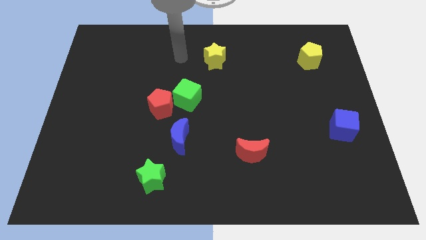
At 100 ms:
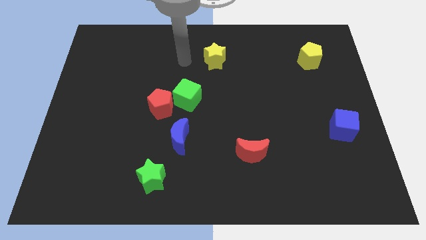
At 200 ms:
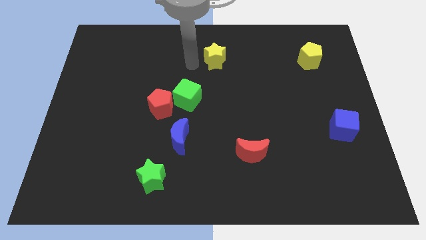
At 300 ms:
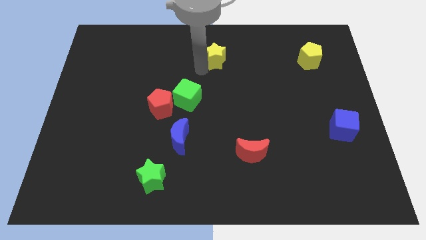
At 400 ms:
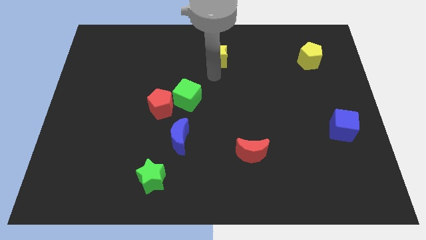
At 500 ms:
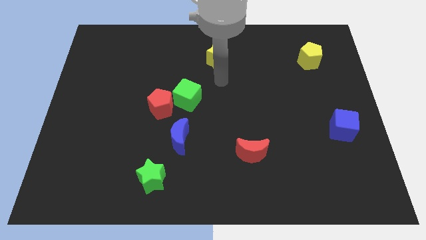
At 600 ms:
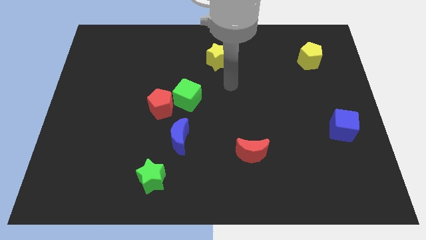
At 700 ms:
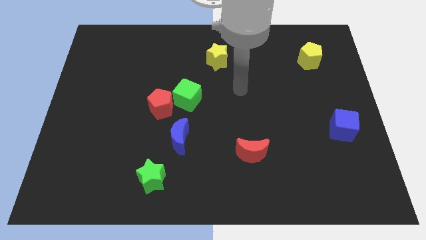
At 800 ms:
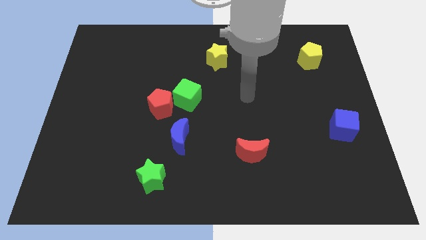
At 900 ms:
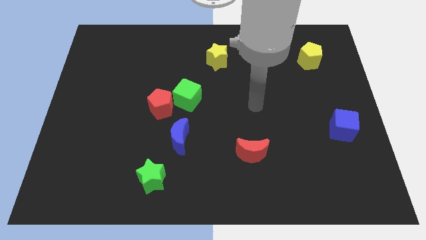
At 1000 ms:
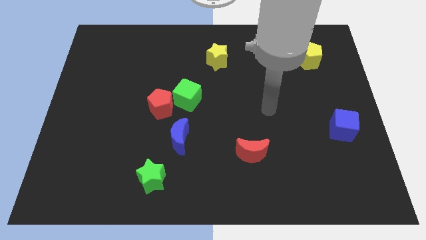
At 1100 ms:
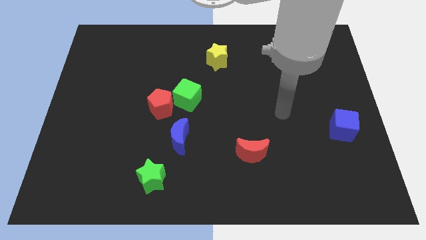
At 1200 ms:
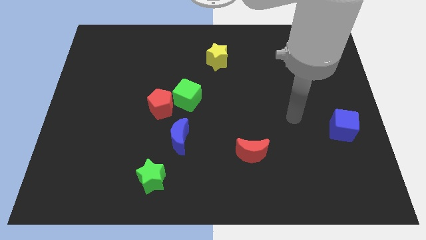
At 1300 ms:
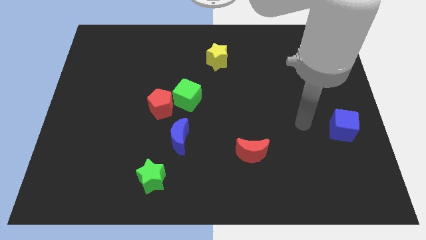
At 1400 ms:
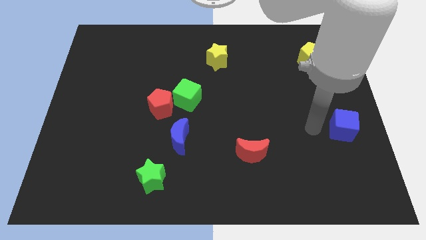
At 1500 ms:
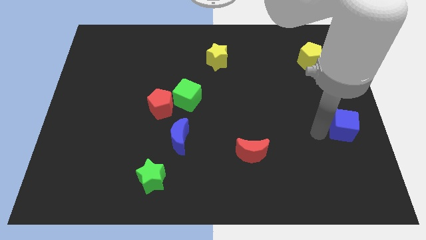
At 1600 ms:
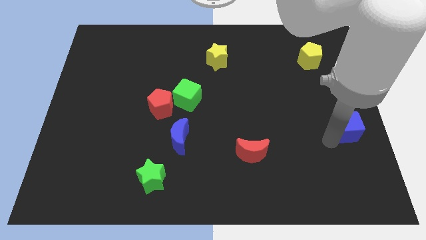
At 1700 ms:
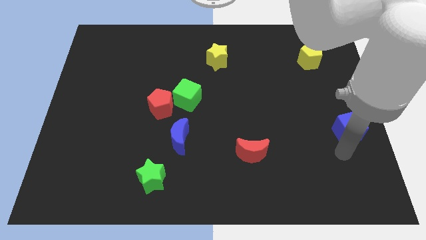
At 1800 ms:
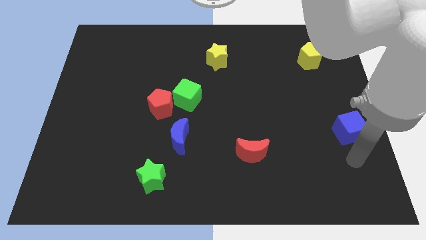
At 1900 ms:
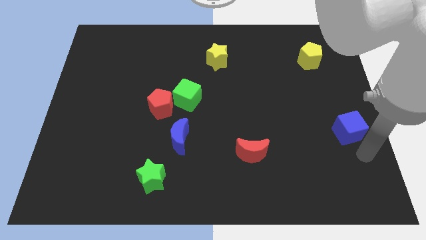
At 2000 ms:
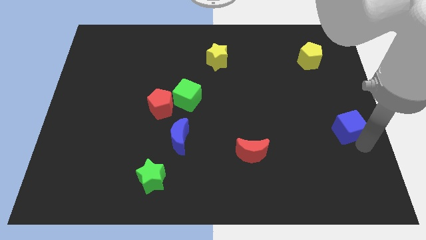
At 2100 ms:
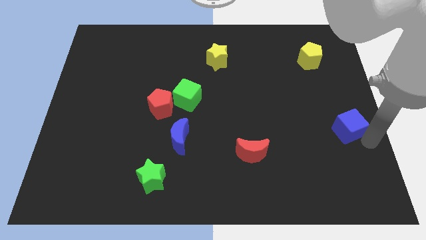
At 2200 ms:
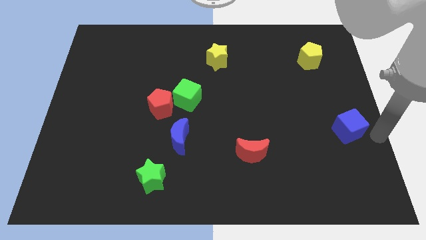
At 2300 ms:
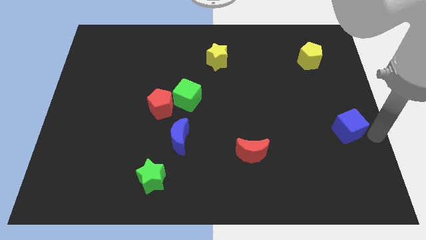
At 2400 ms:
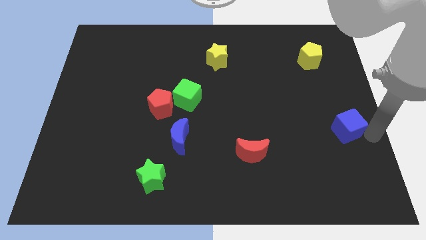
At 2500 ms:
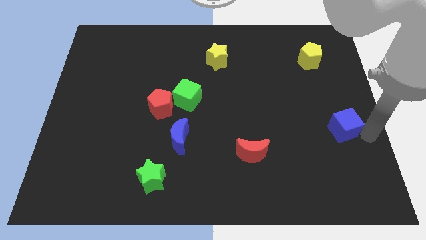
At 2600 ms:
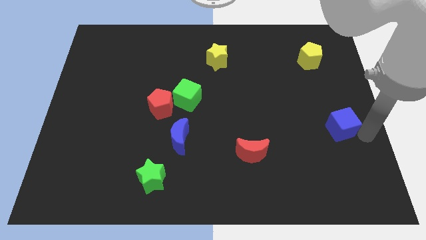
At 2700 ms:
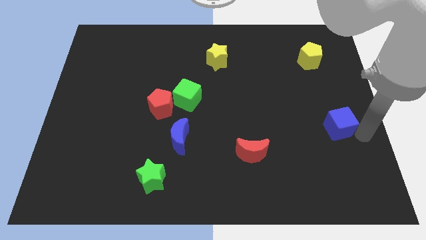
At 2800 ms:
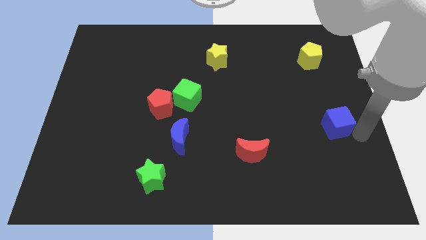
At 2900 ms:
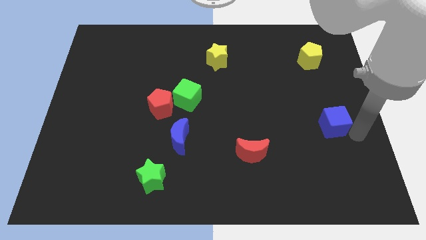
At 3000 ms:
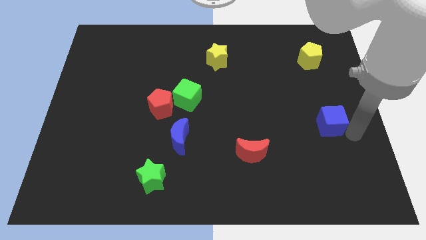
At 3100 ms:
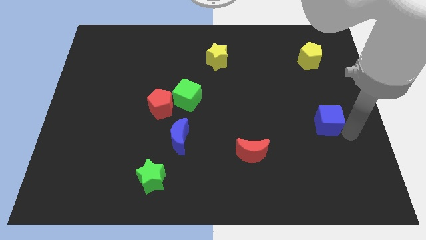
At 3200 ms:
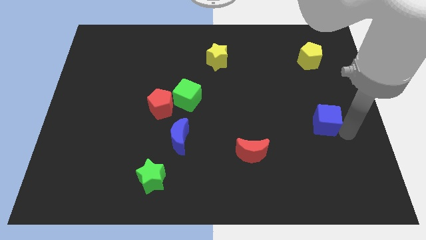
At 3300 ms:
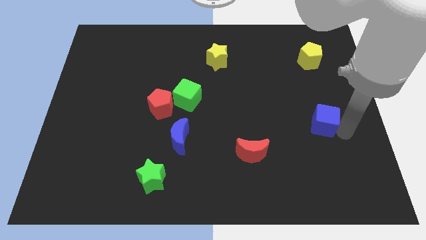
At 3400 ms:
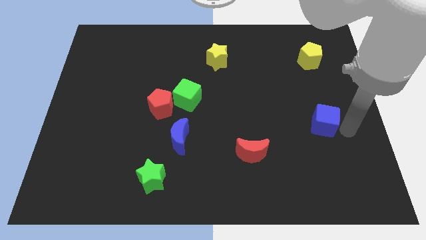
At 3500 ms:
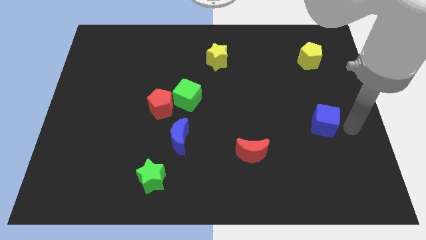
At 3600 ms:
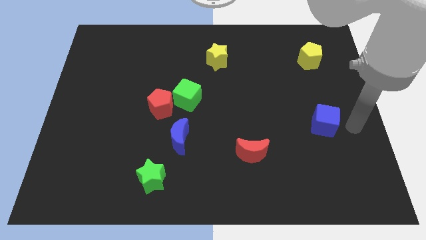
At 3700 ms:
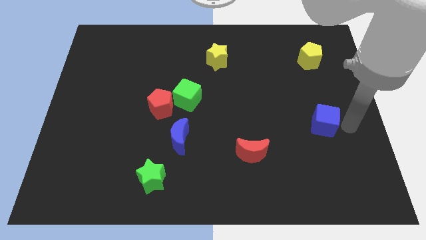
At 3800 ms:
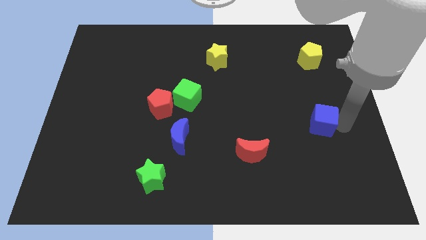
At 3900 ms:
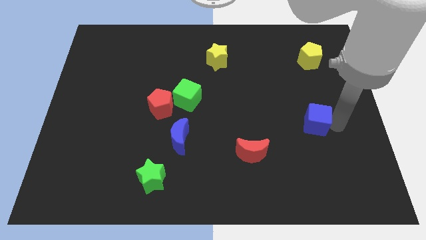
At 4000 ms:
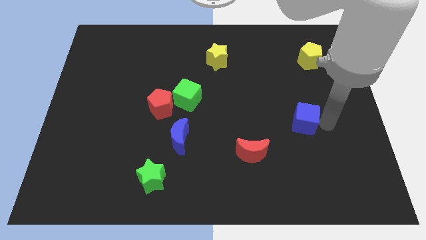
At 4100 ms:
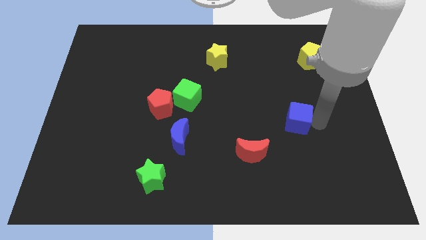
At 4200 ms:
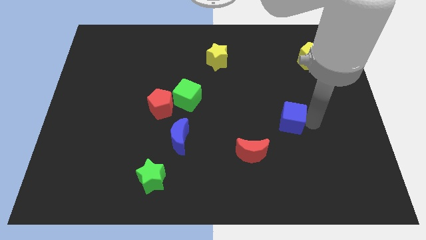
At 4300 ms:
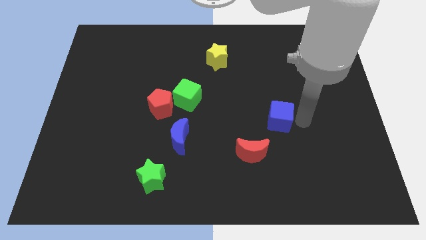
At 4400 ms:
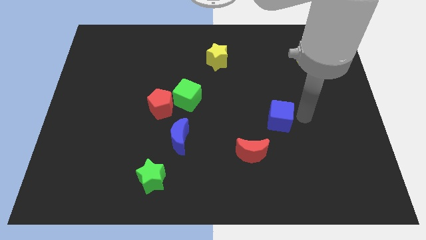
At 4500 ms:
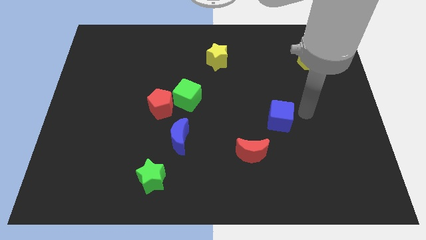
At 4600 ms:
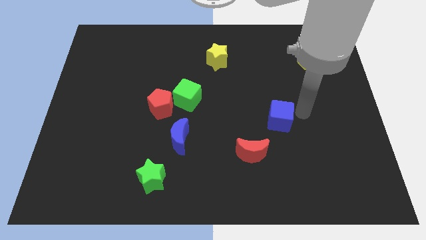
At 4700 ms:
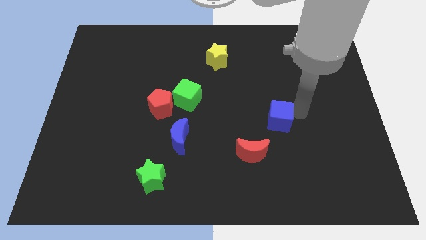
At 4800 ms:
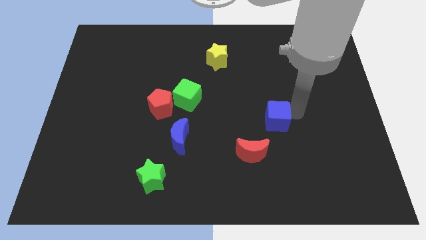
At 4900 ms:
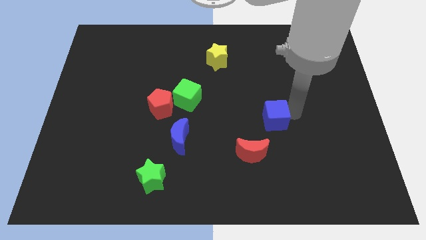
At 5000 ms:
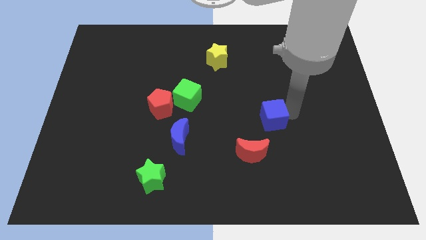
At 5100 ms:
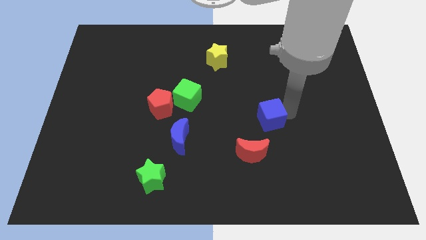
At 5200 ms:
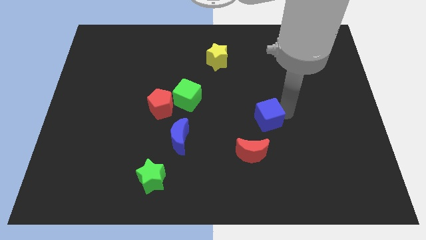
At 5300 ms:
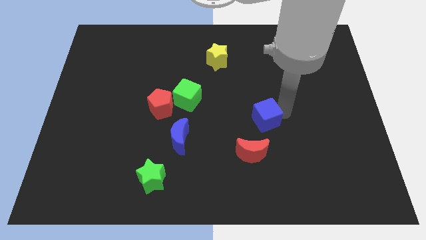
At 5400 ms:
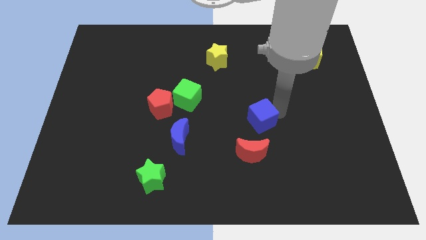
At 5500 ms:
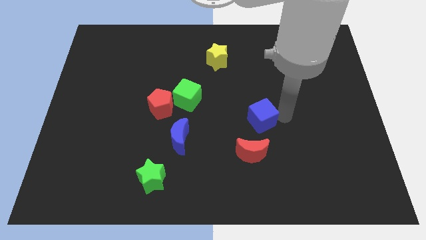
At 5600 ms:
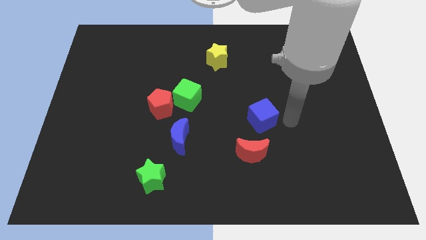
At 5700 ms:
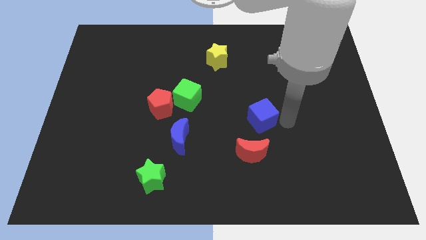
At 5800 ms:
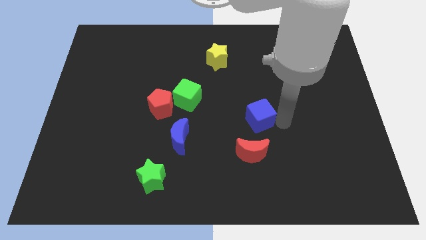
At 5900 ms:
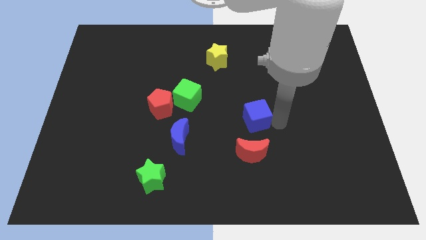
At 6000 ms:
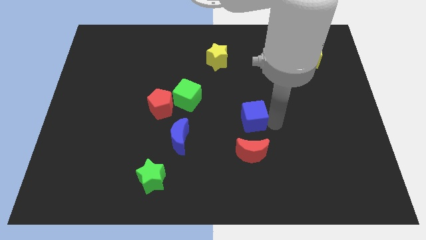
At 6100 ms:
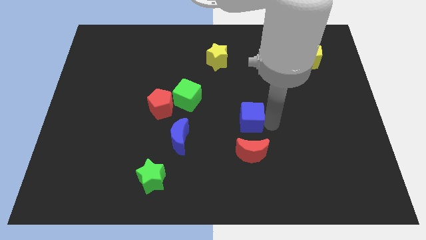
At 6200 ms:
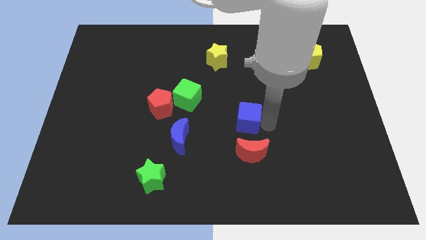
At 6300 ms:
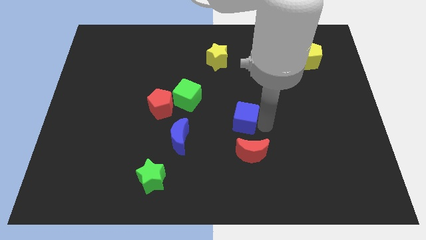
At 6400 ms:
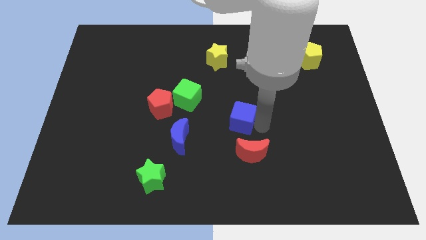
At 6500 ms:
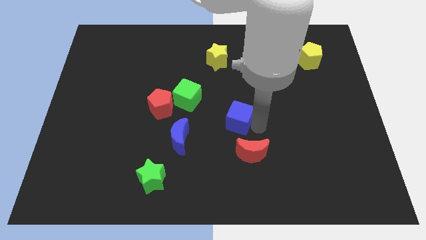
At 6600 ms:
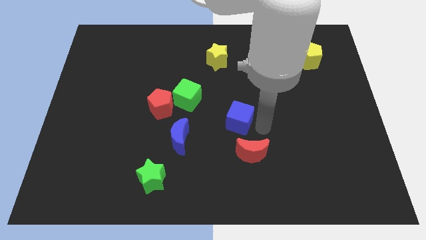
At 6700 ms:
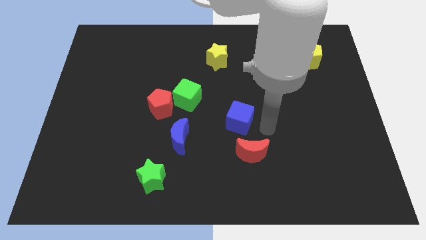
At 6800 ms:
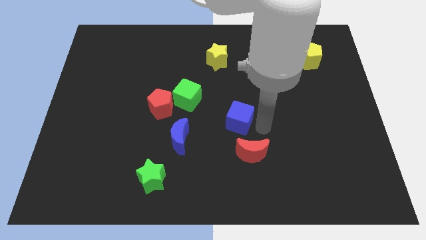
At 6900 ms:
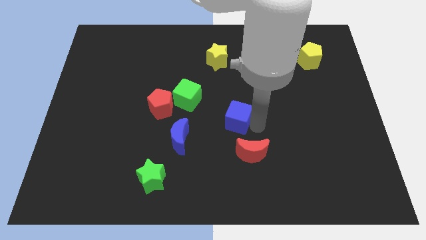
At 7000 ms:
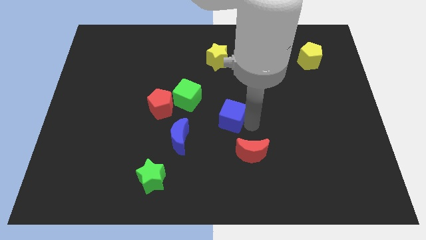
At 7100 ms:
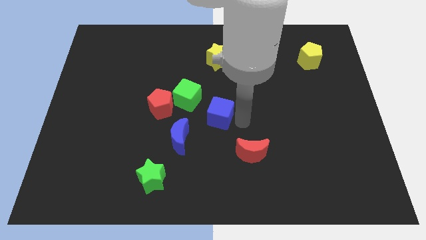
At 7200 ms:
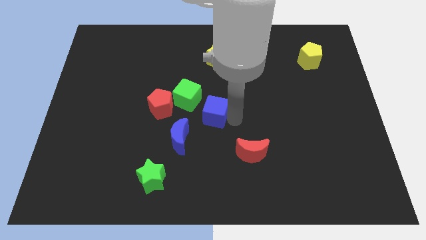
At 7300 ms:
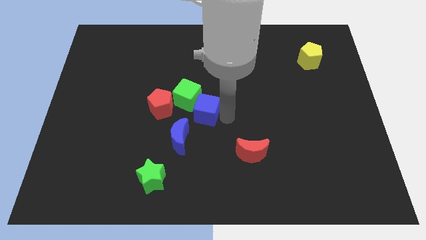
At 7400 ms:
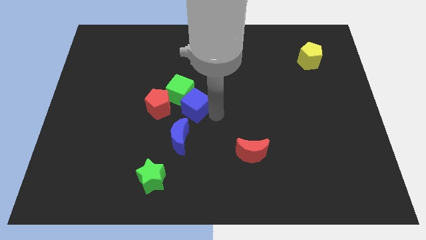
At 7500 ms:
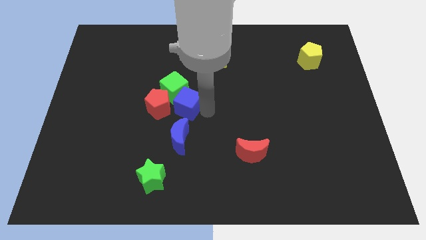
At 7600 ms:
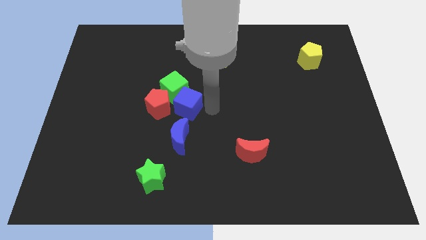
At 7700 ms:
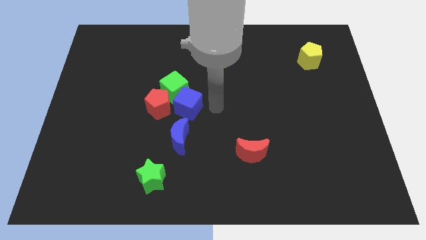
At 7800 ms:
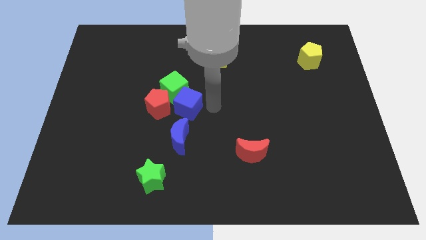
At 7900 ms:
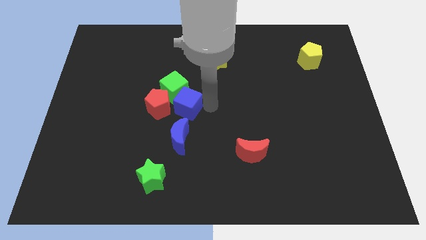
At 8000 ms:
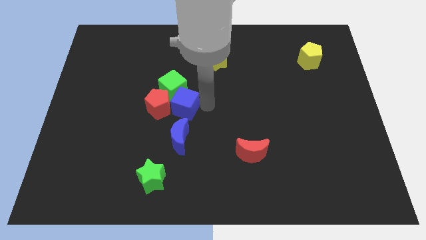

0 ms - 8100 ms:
push the blue cube close to the red pentagon
